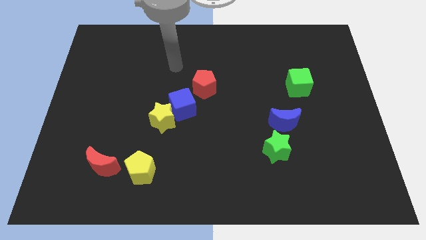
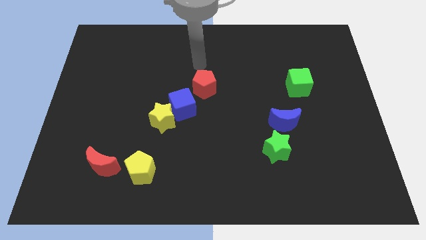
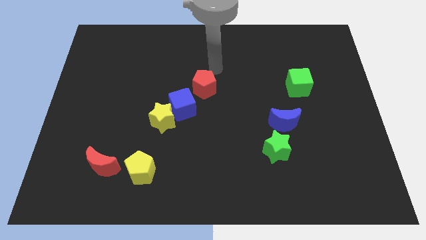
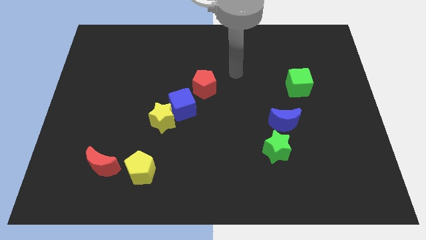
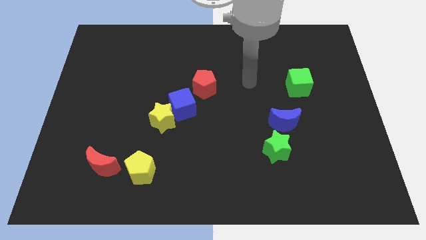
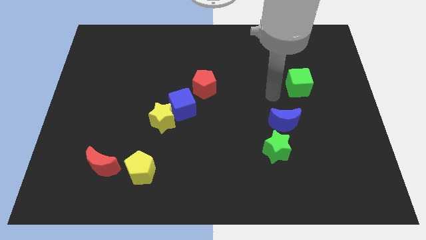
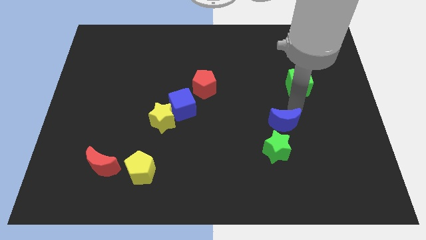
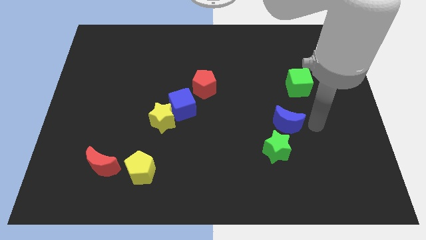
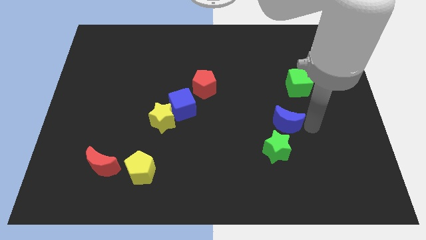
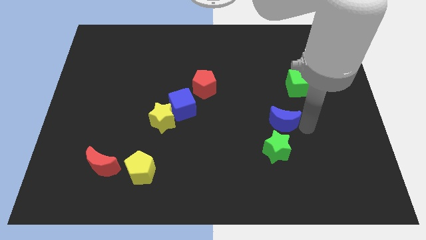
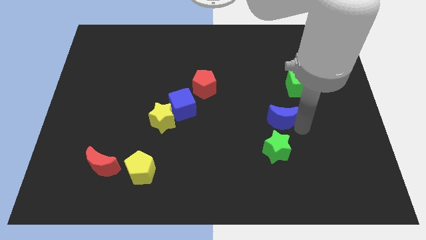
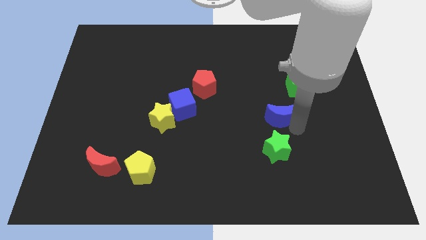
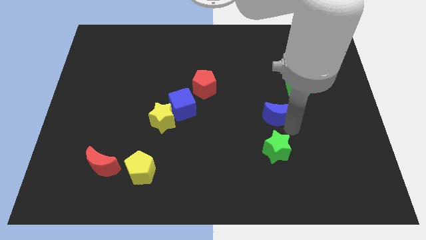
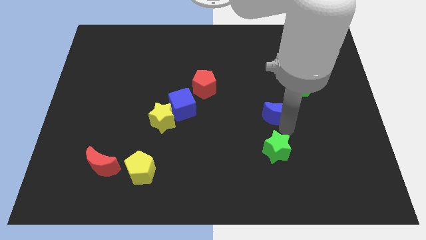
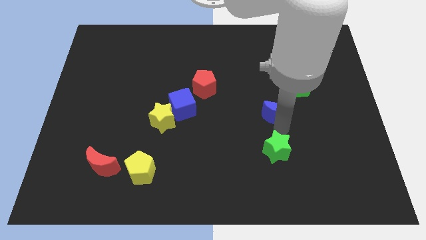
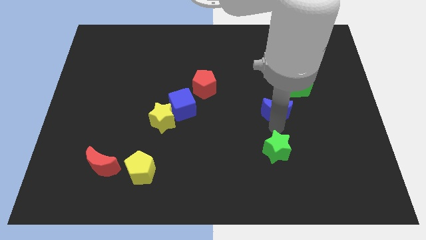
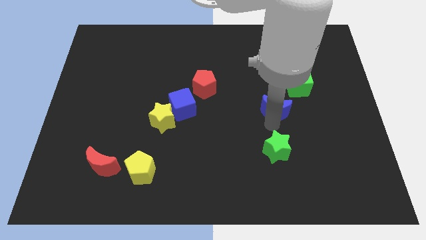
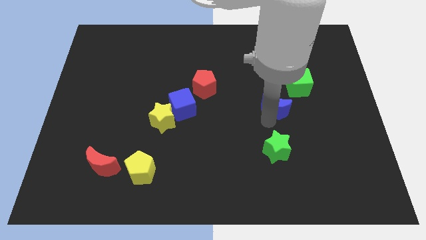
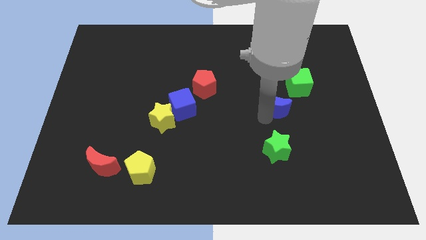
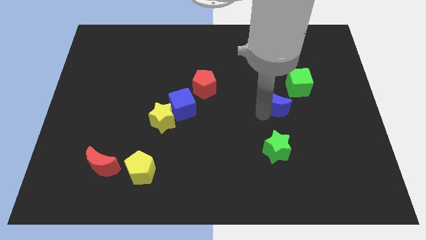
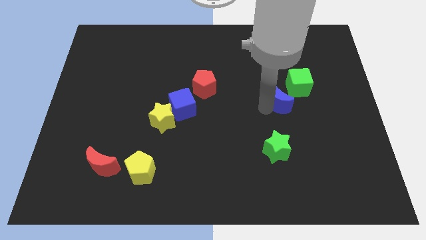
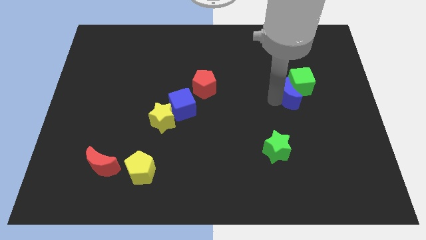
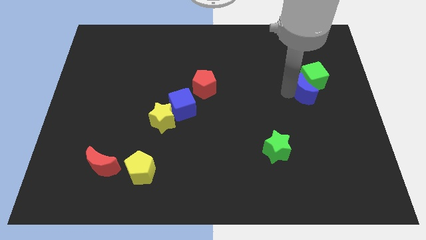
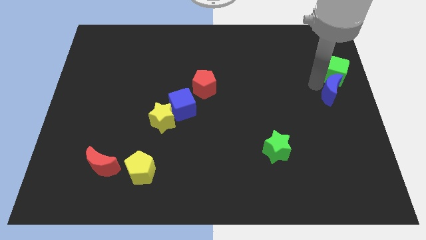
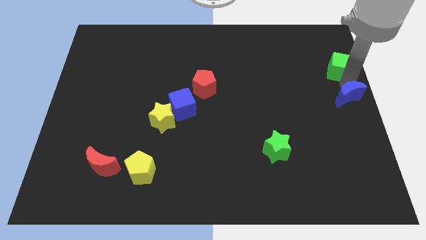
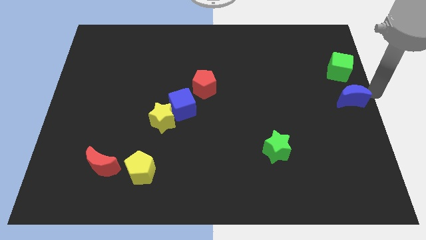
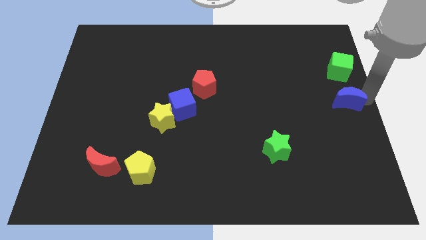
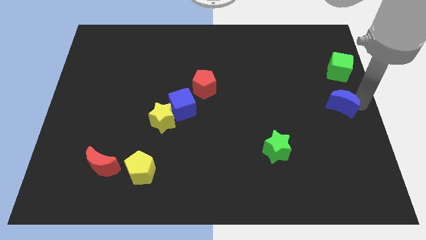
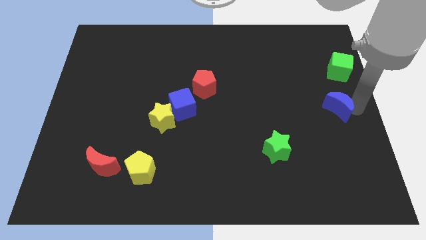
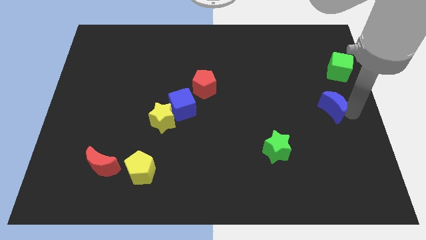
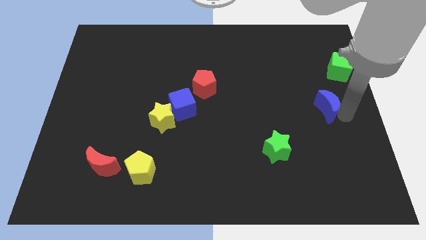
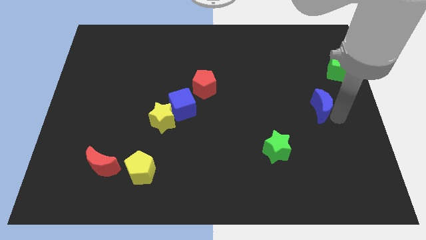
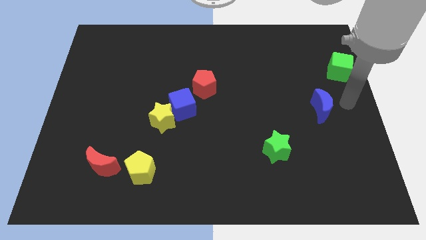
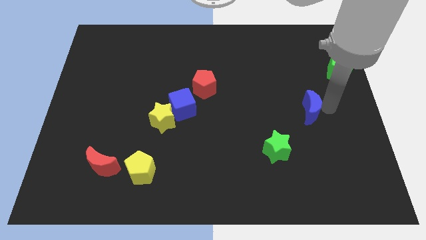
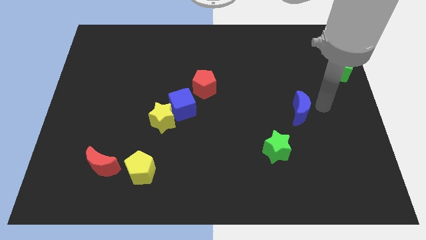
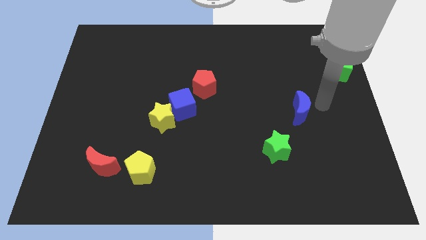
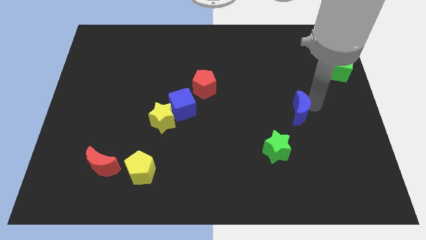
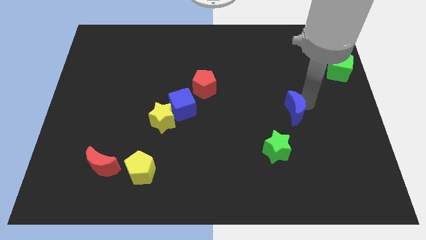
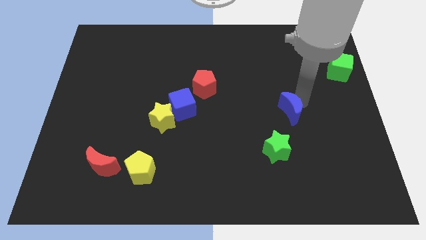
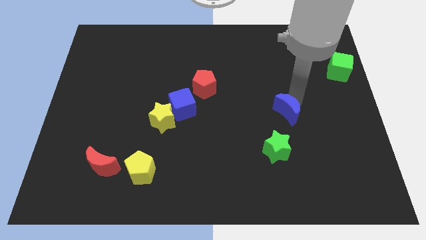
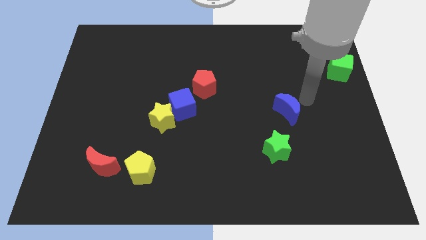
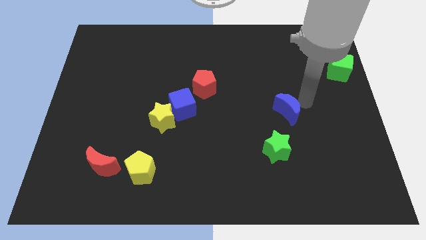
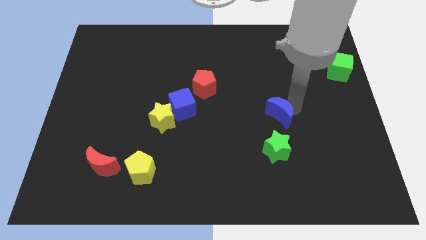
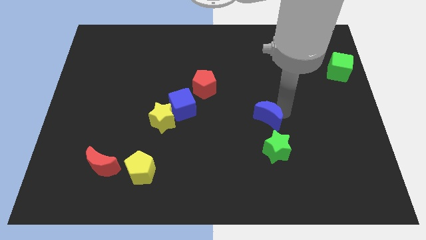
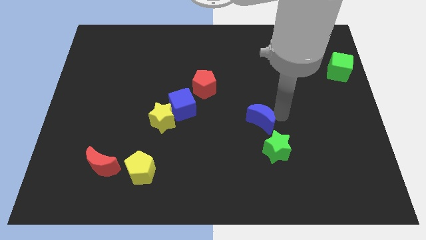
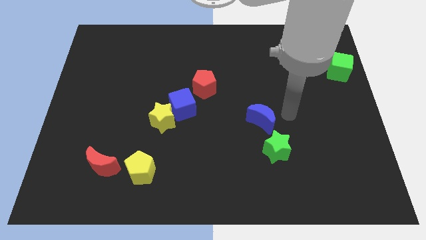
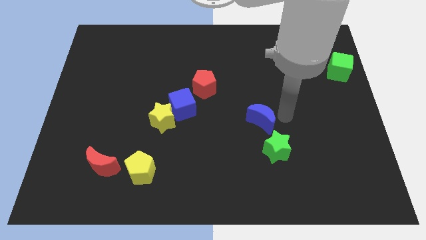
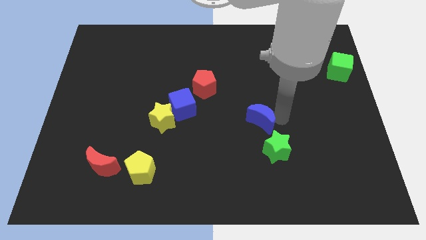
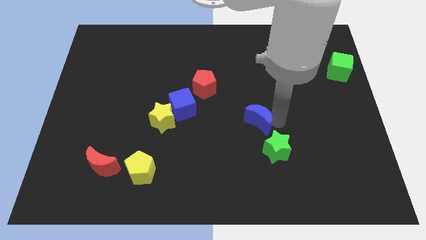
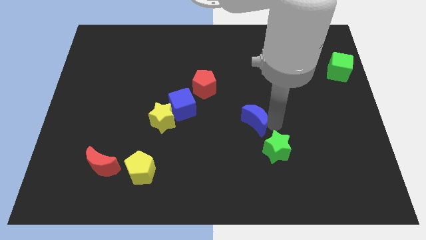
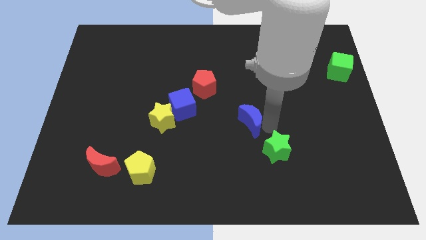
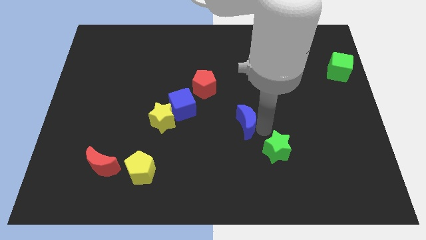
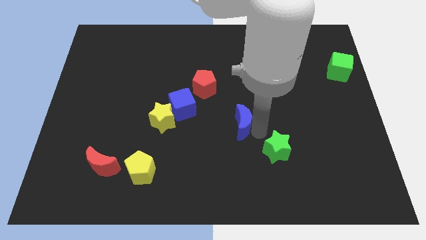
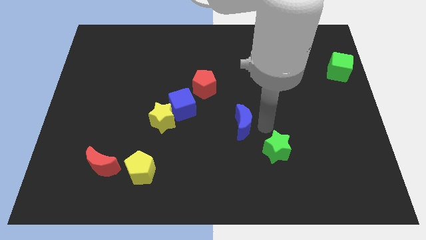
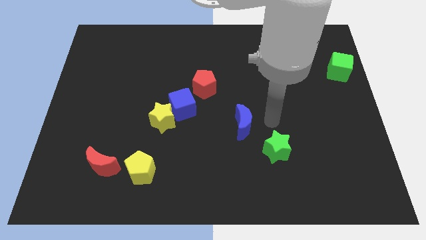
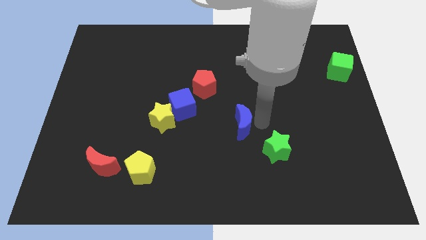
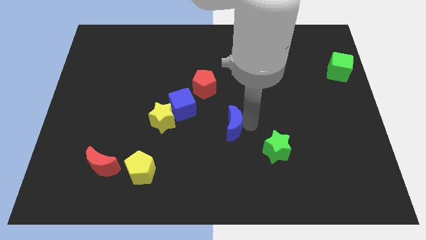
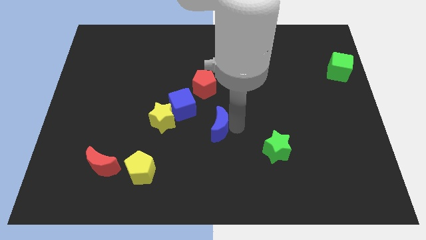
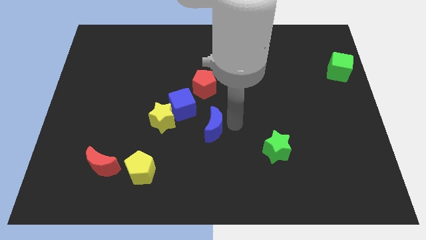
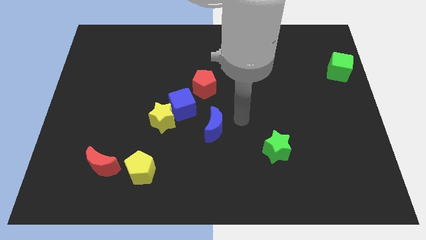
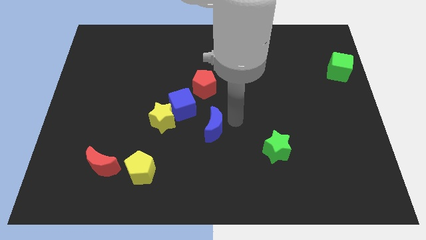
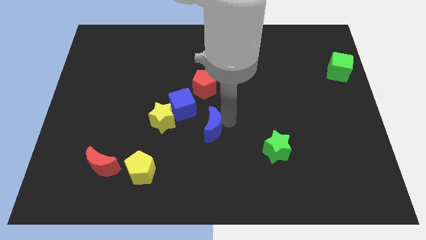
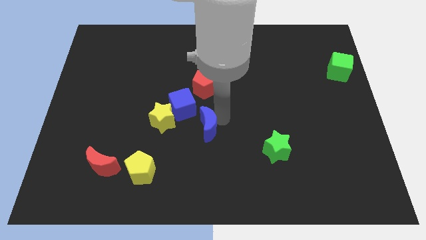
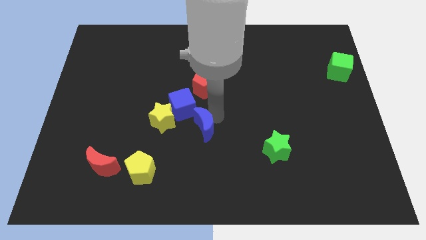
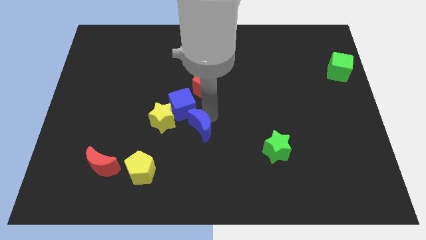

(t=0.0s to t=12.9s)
move the blue moon to the bottom right of the yellow star
